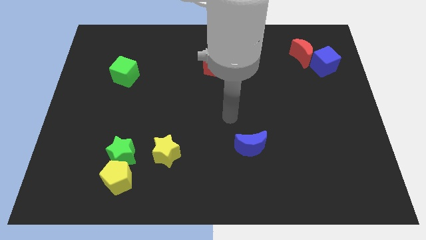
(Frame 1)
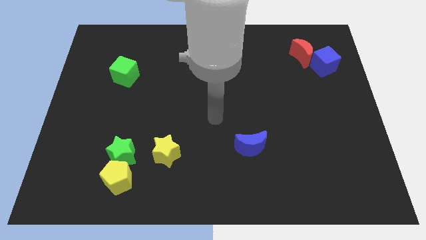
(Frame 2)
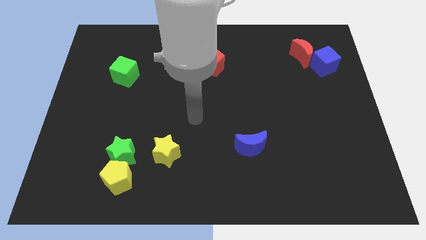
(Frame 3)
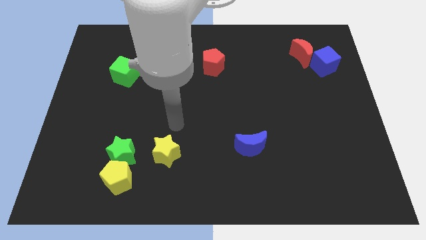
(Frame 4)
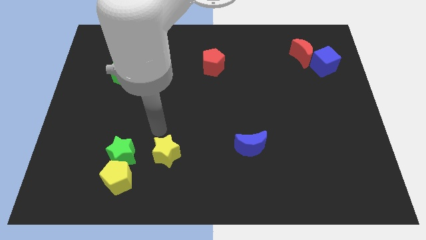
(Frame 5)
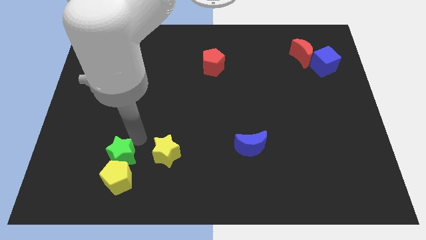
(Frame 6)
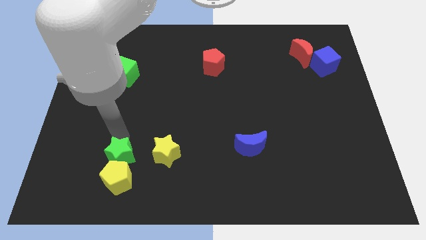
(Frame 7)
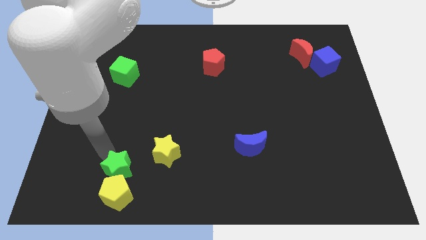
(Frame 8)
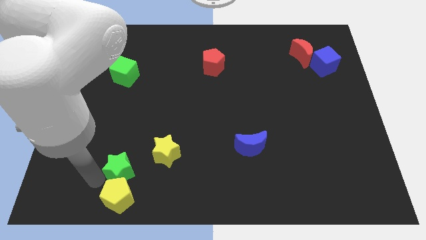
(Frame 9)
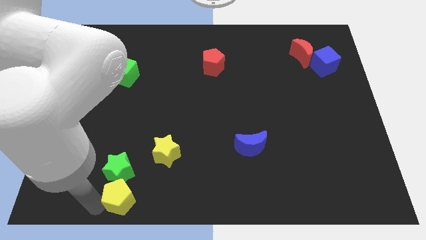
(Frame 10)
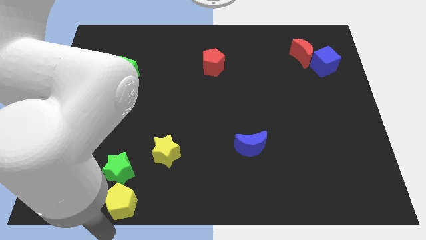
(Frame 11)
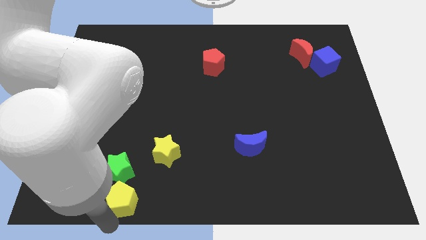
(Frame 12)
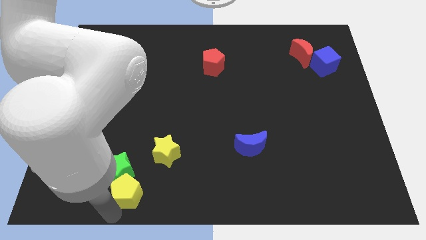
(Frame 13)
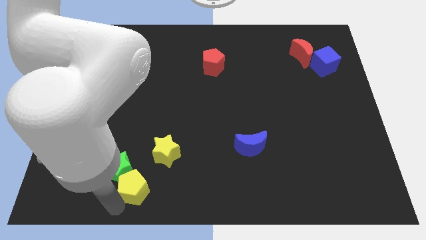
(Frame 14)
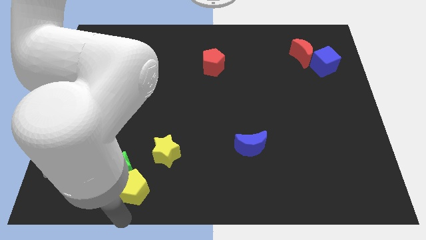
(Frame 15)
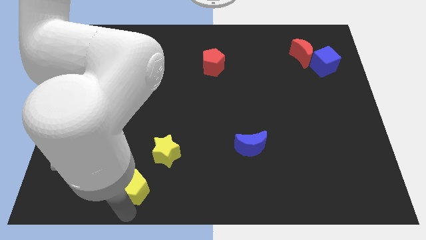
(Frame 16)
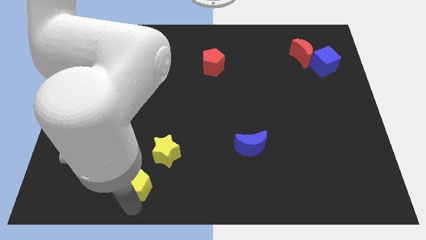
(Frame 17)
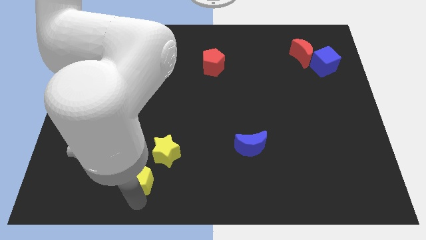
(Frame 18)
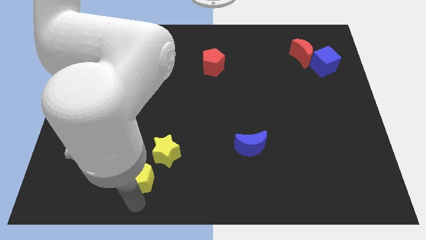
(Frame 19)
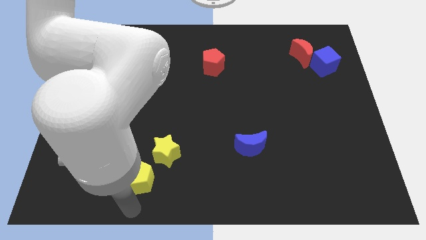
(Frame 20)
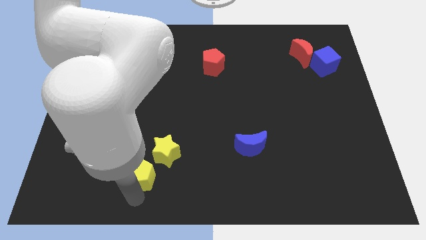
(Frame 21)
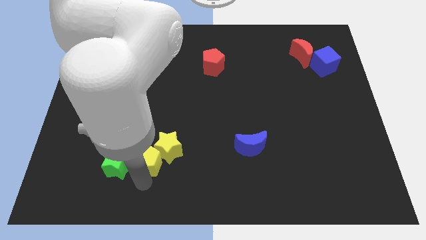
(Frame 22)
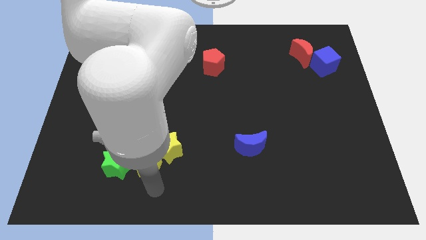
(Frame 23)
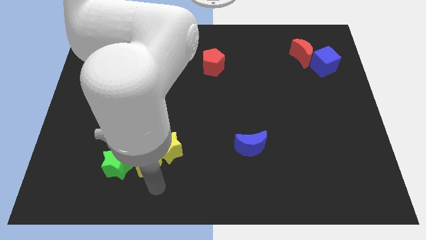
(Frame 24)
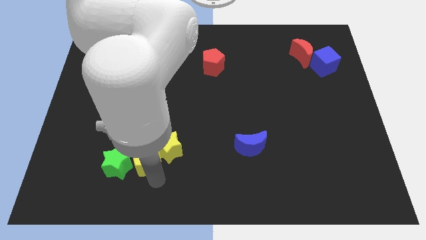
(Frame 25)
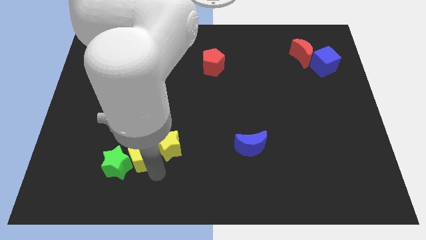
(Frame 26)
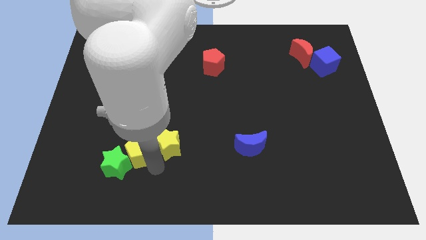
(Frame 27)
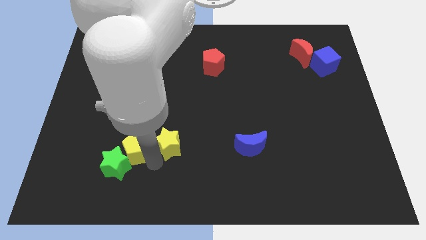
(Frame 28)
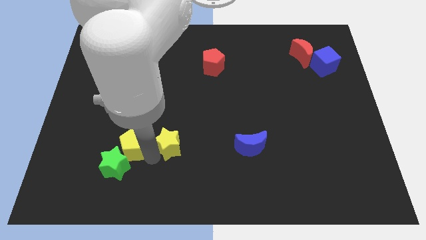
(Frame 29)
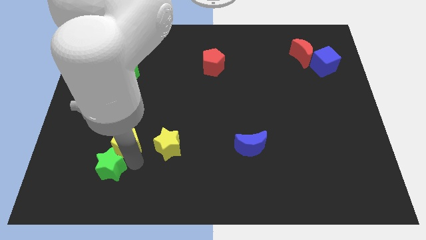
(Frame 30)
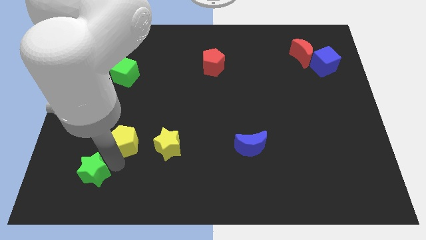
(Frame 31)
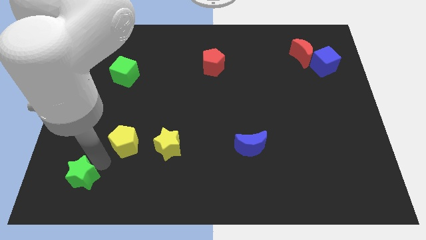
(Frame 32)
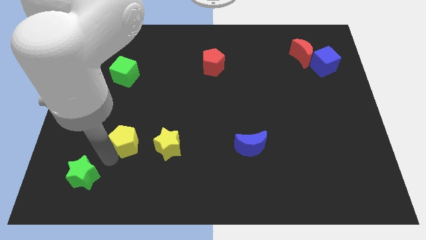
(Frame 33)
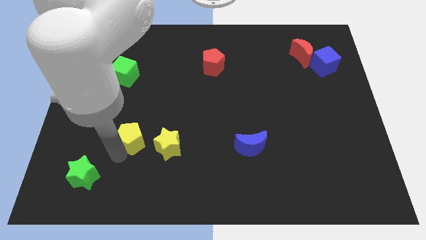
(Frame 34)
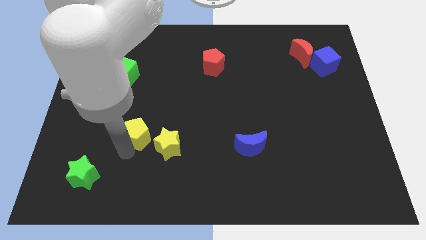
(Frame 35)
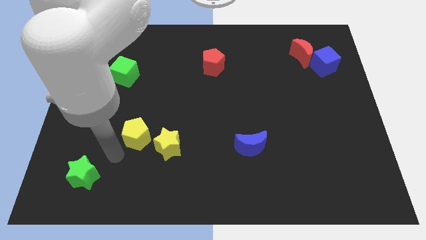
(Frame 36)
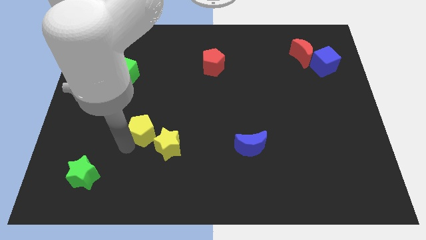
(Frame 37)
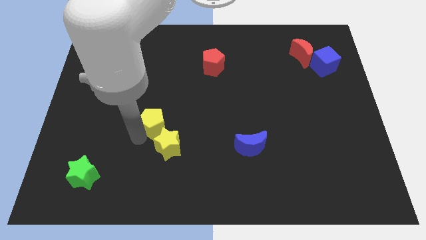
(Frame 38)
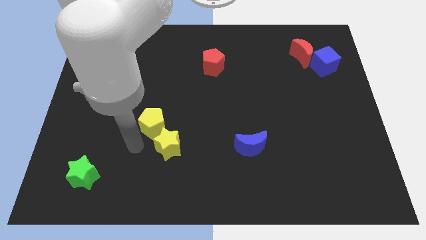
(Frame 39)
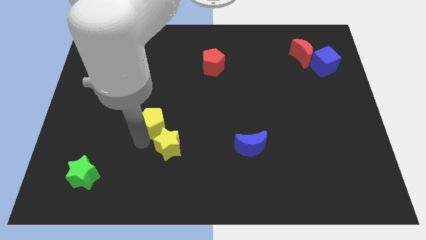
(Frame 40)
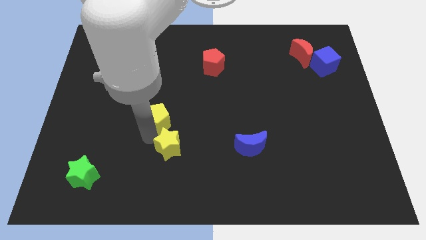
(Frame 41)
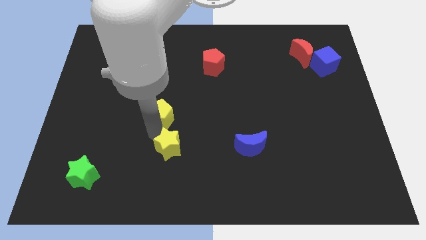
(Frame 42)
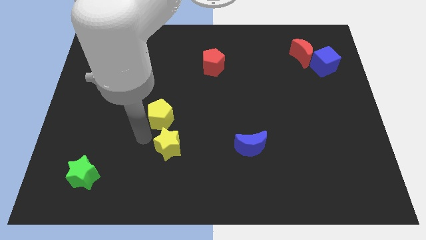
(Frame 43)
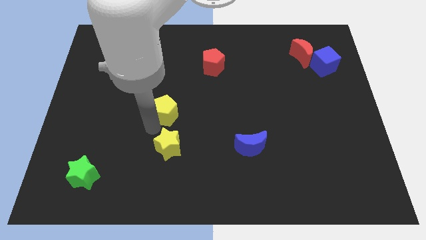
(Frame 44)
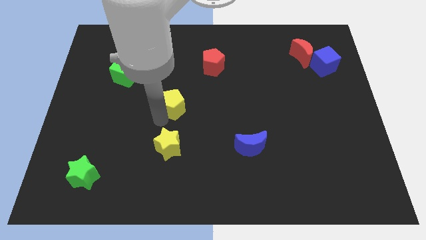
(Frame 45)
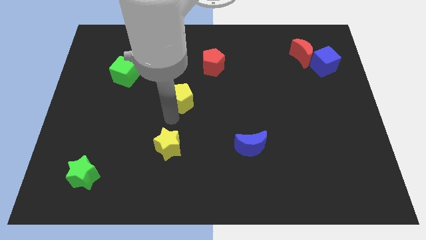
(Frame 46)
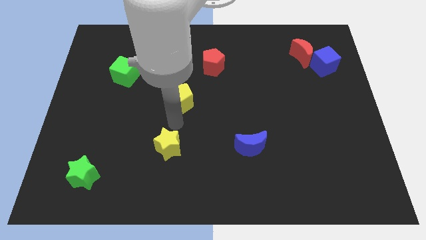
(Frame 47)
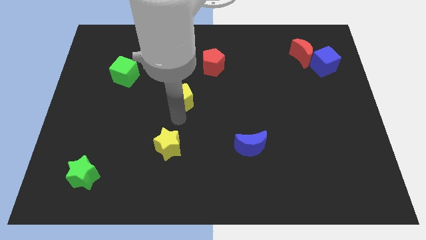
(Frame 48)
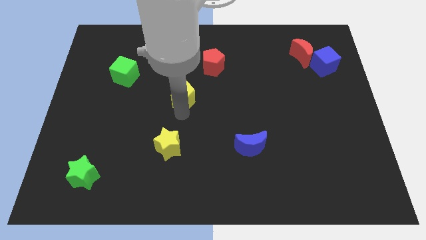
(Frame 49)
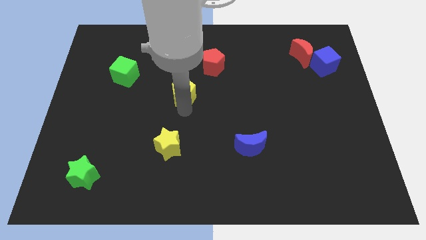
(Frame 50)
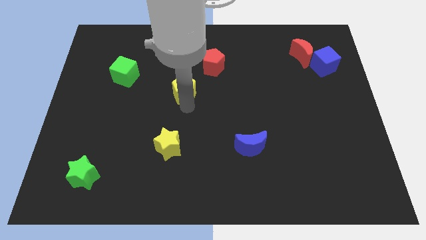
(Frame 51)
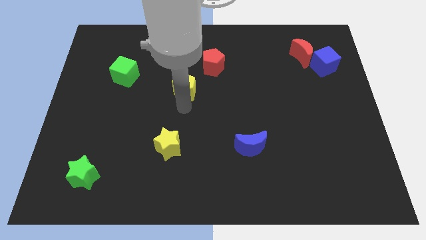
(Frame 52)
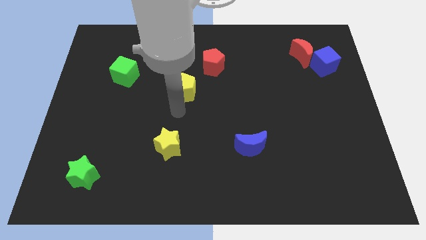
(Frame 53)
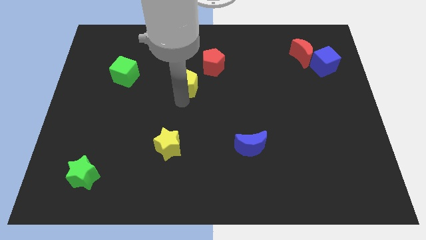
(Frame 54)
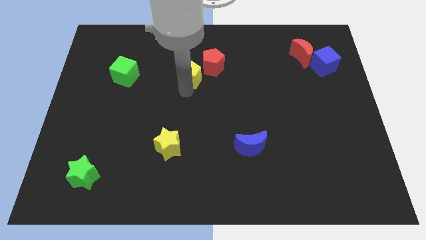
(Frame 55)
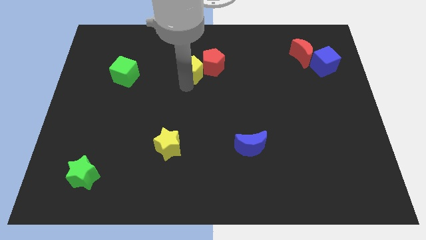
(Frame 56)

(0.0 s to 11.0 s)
move the yellow pentagon towards the red pentagon

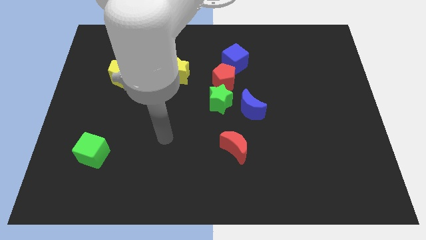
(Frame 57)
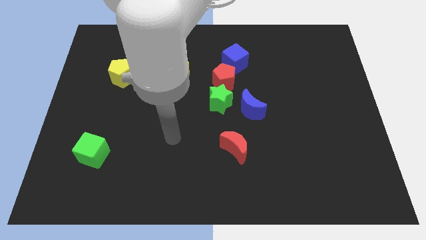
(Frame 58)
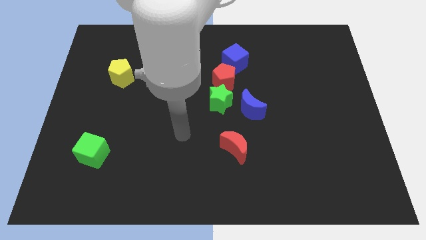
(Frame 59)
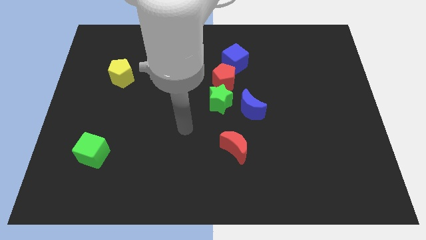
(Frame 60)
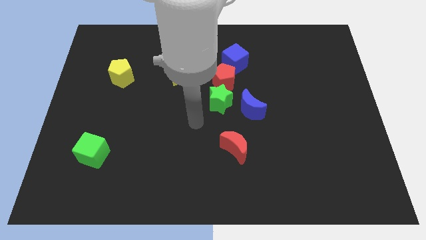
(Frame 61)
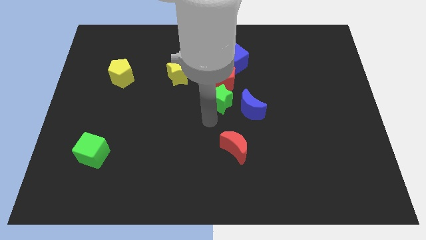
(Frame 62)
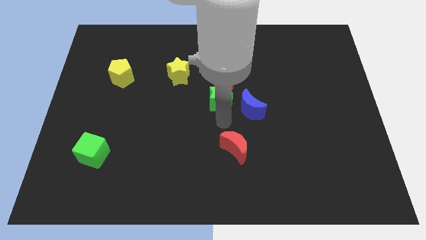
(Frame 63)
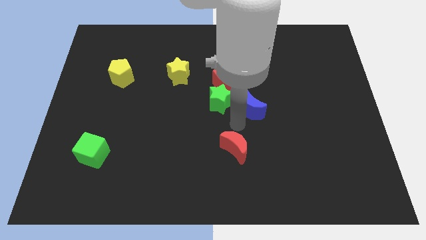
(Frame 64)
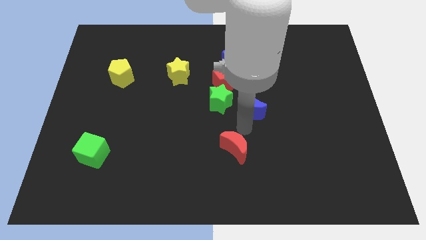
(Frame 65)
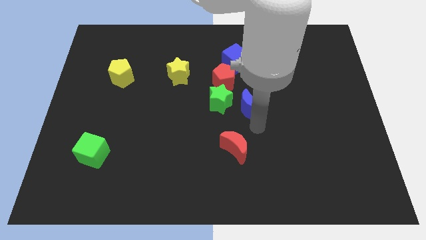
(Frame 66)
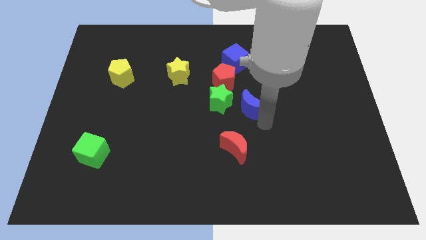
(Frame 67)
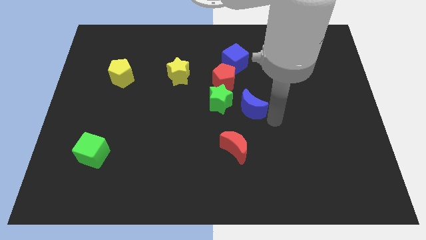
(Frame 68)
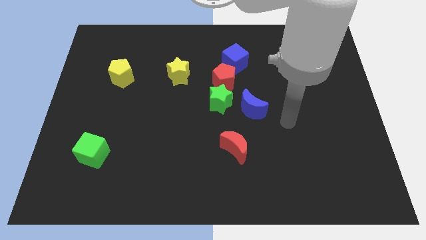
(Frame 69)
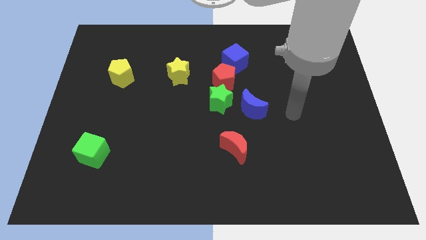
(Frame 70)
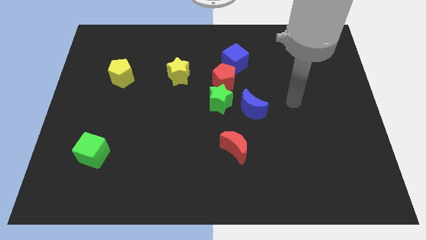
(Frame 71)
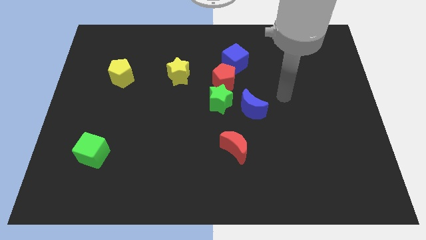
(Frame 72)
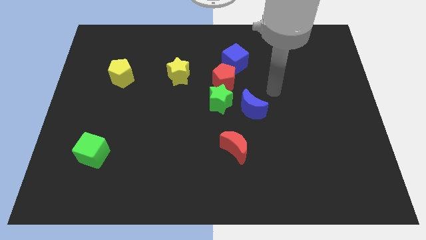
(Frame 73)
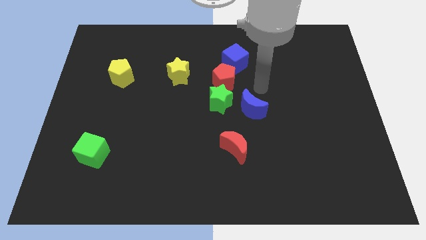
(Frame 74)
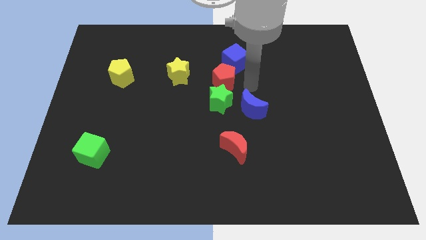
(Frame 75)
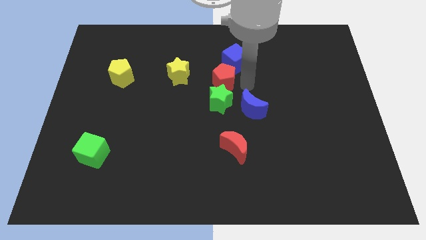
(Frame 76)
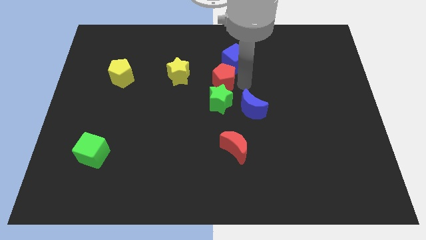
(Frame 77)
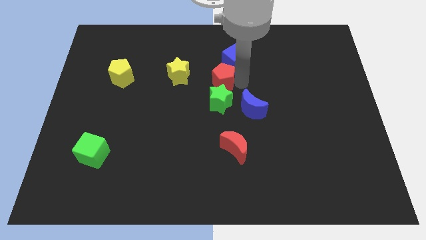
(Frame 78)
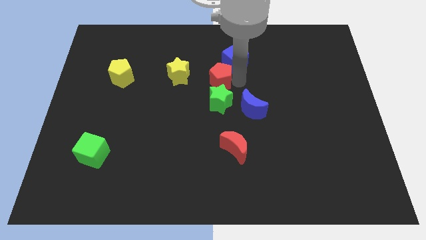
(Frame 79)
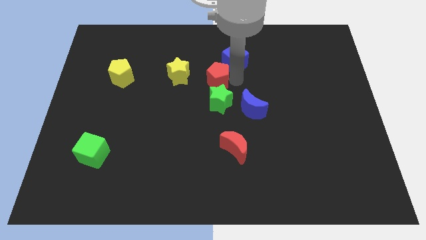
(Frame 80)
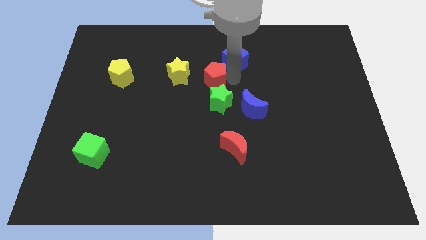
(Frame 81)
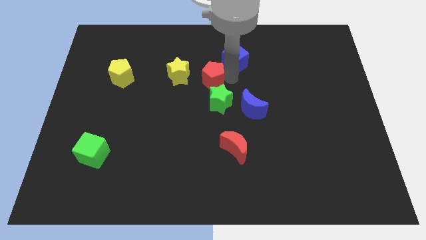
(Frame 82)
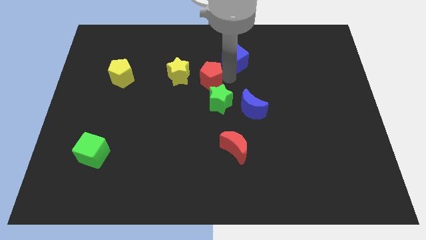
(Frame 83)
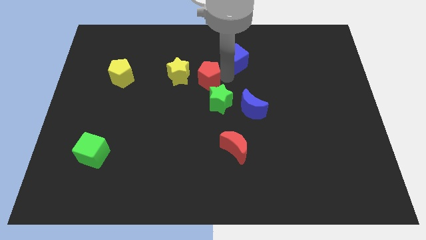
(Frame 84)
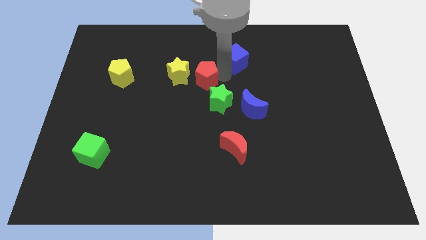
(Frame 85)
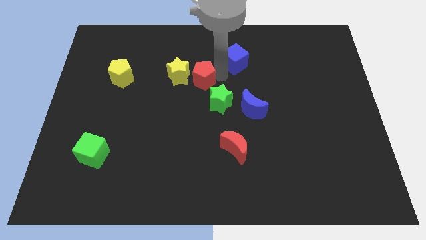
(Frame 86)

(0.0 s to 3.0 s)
push the red pentagon next to the yellow star
